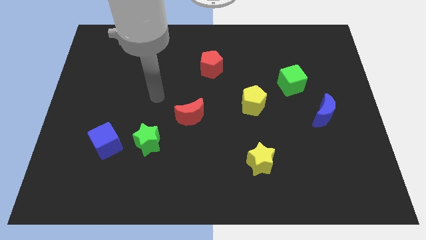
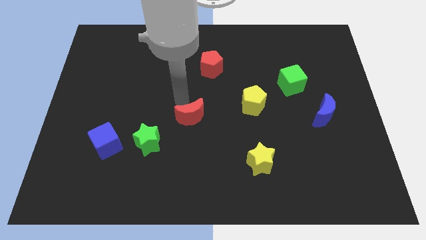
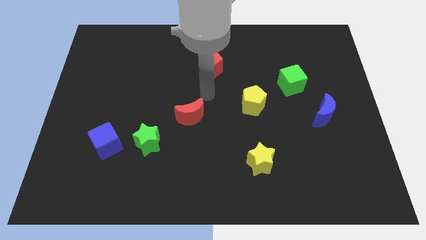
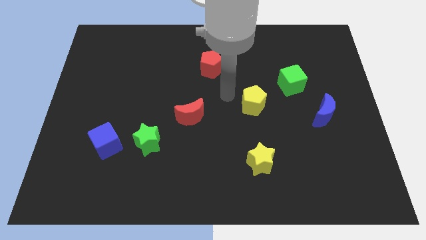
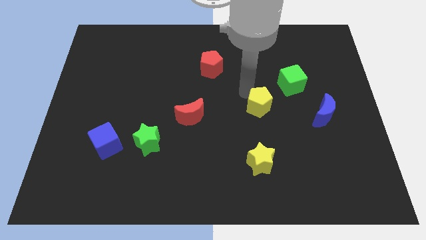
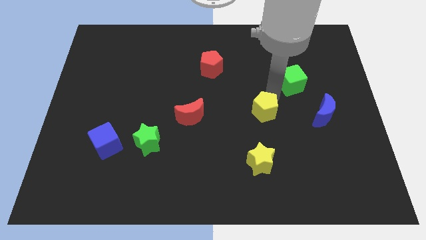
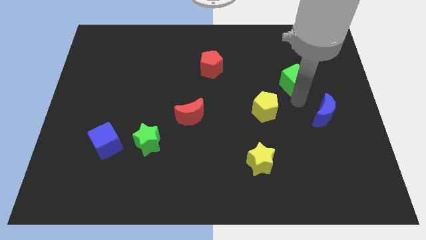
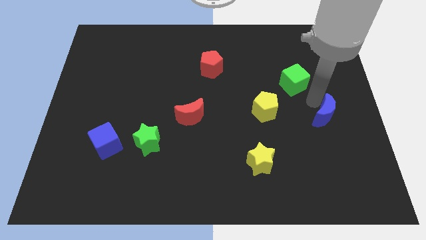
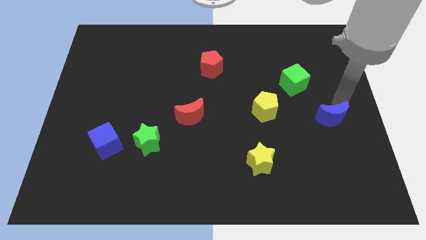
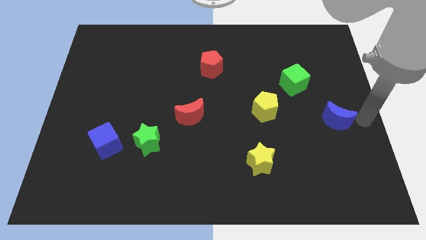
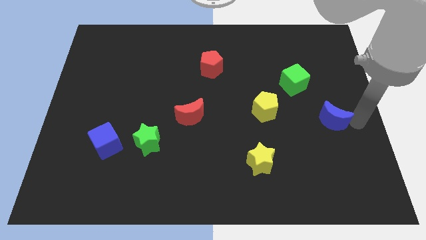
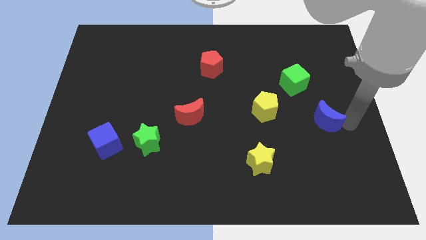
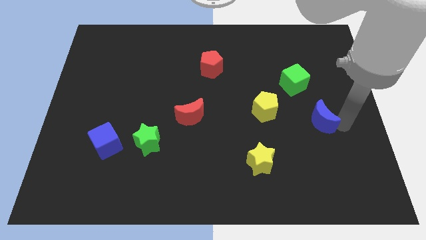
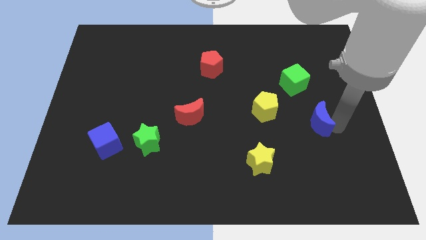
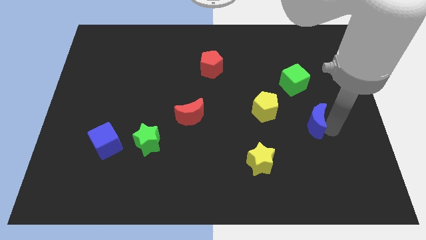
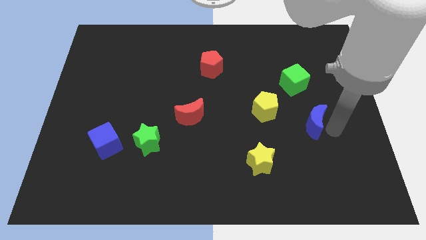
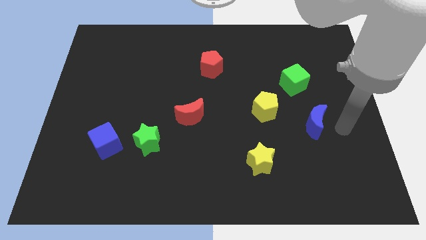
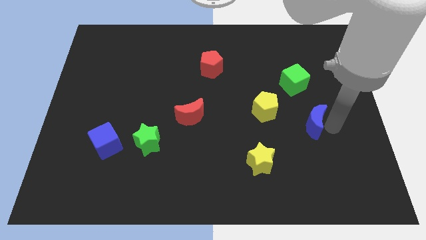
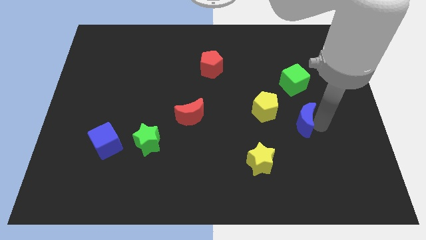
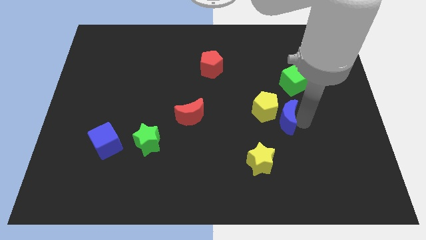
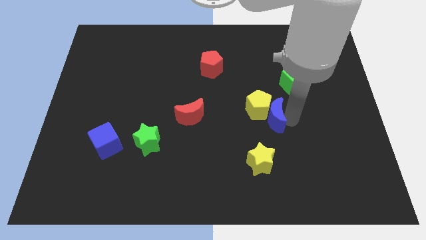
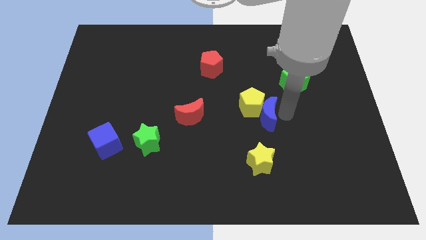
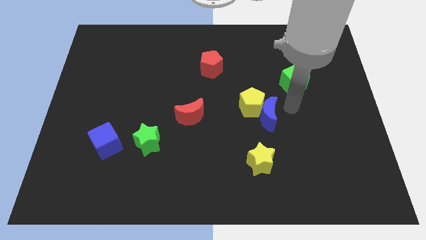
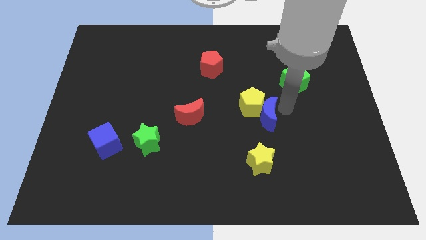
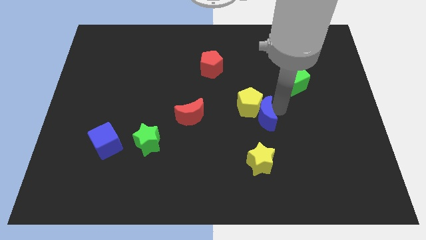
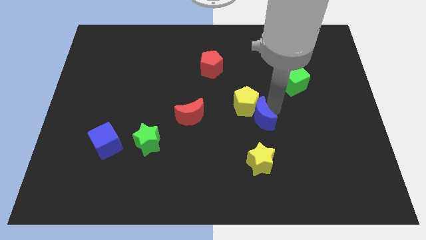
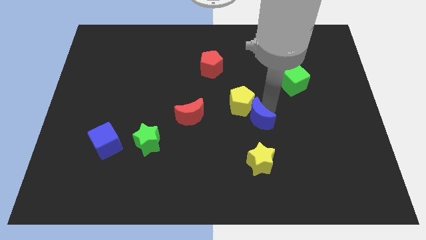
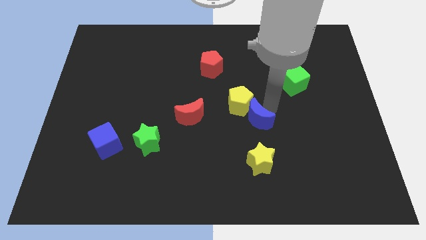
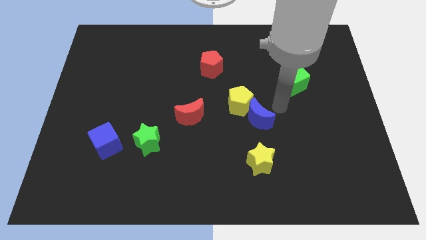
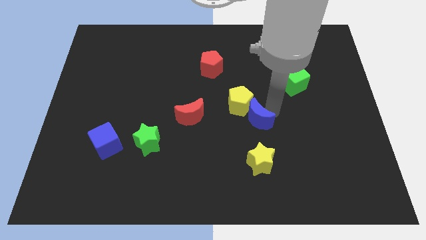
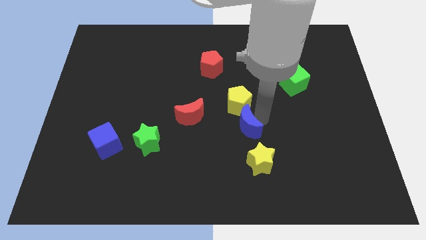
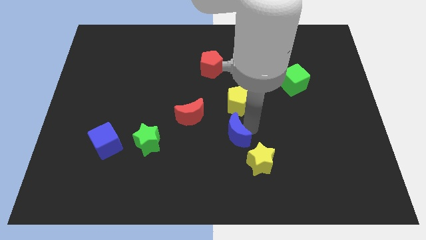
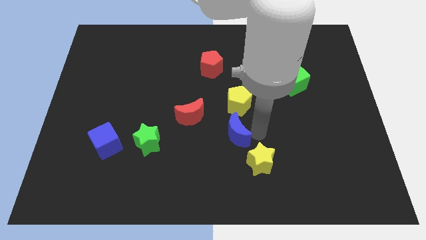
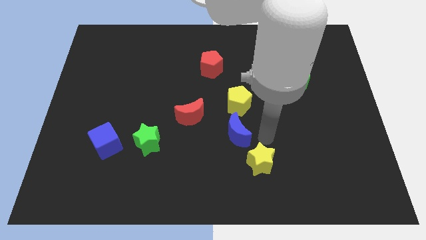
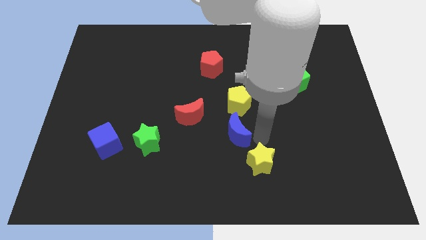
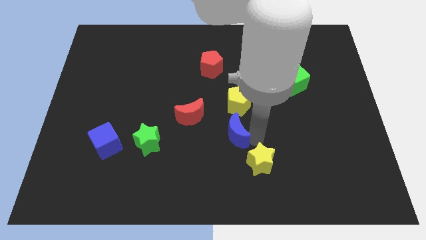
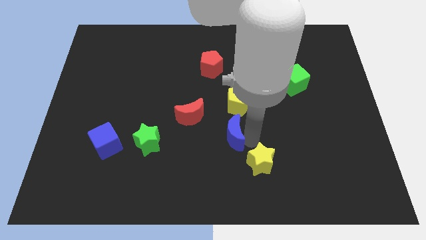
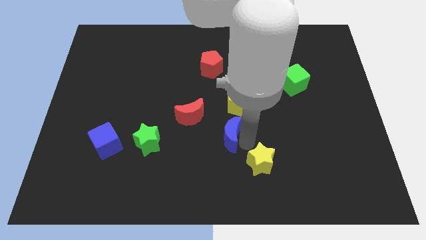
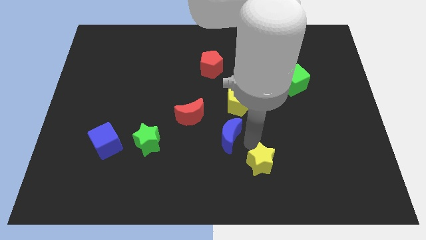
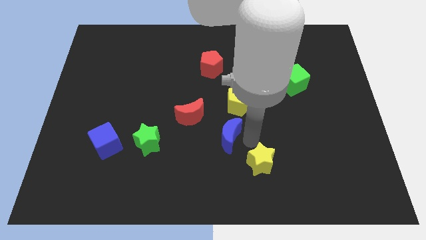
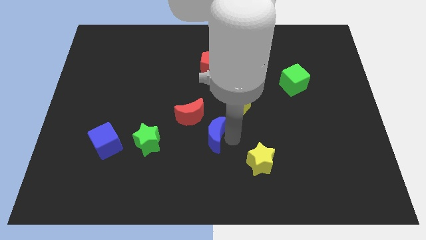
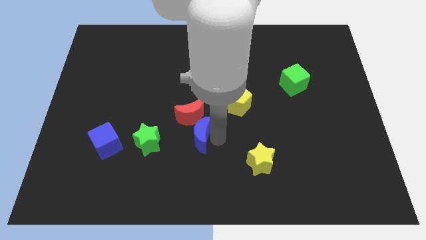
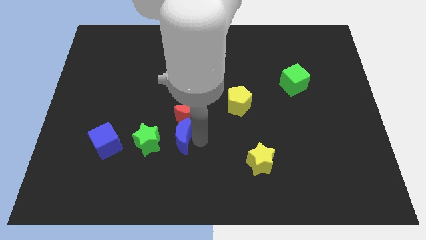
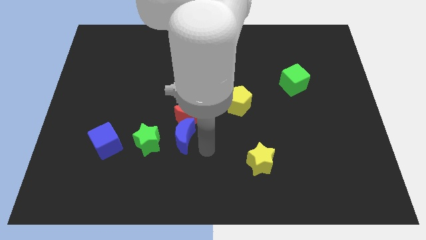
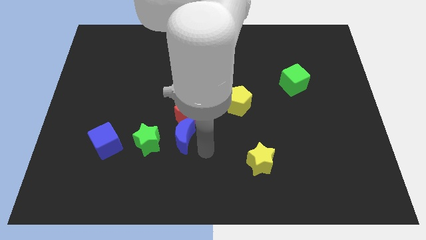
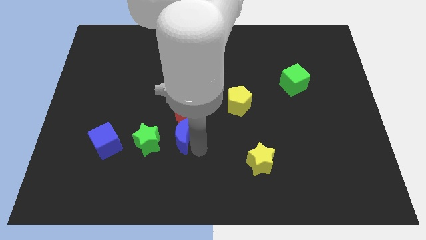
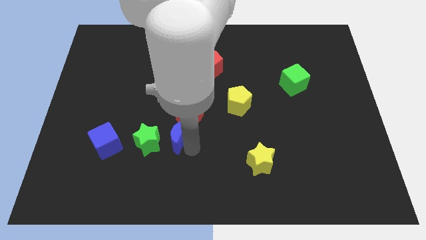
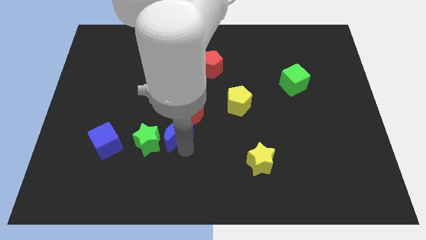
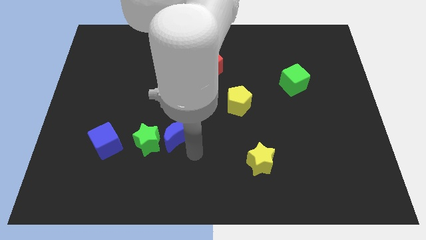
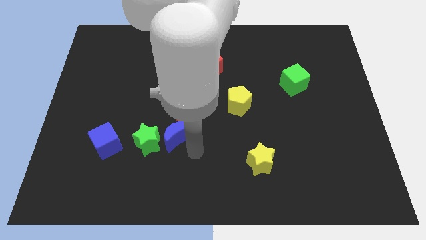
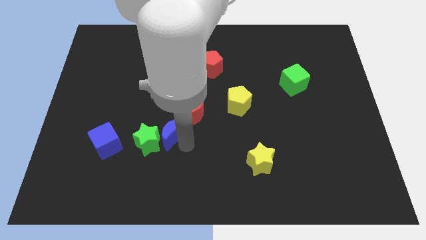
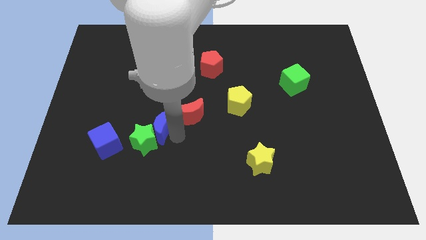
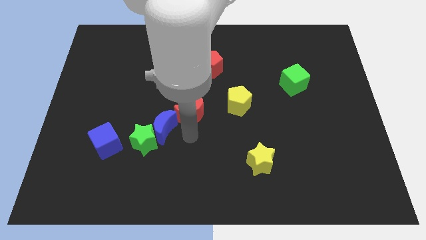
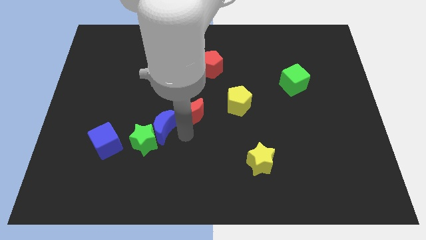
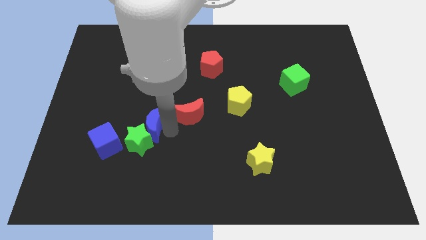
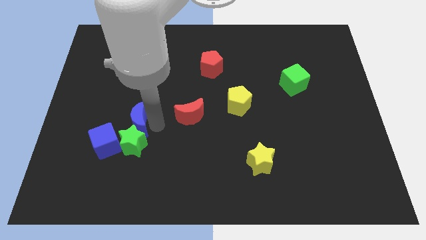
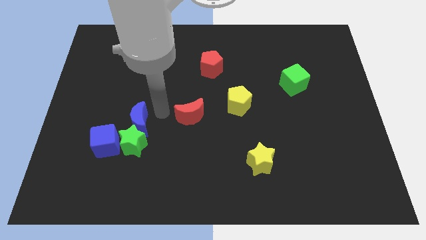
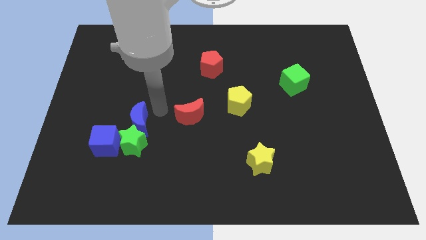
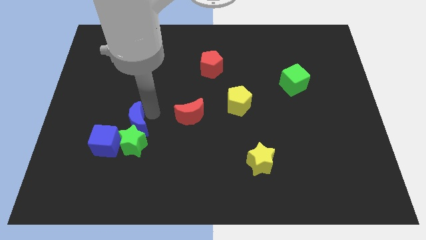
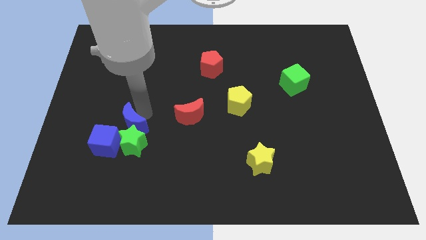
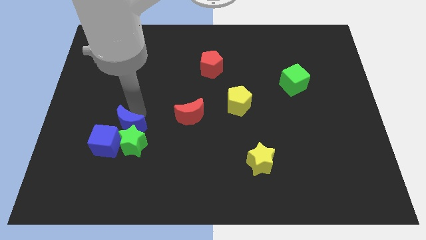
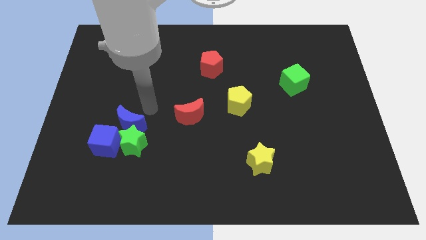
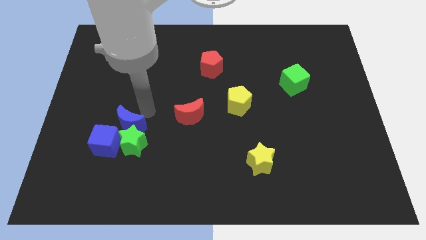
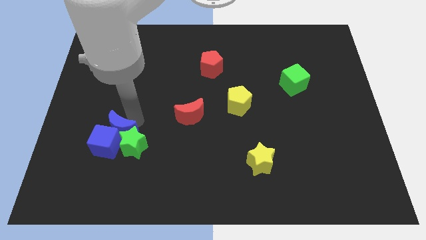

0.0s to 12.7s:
push the blue moon to the blue cube

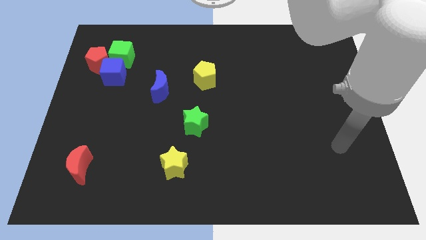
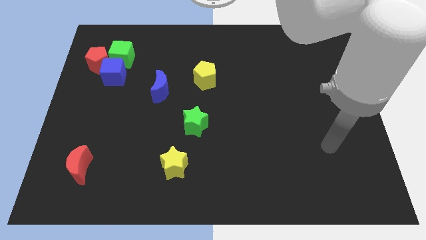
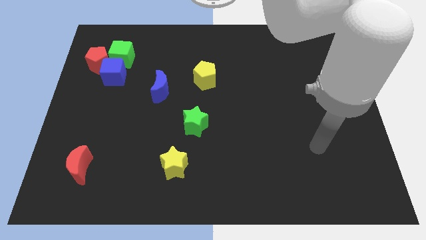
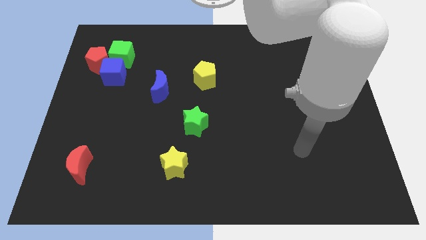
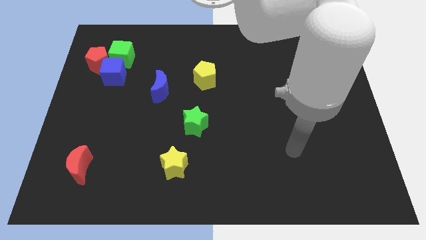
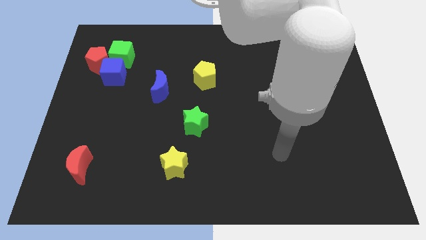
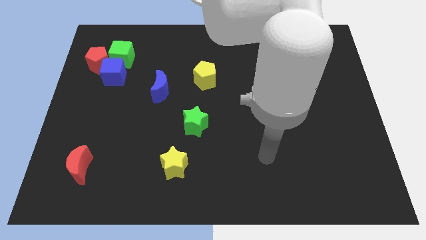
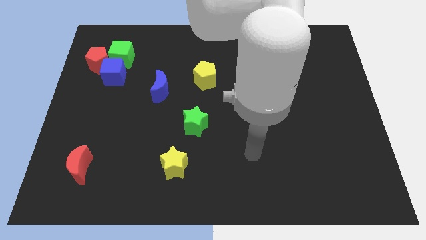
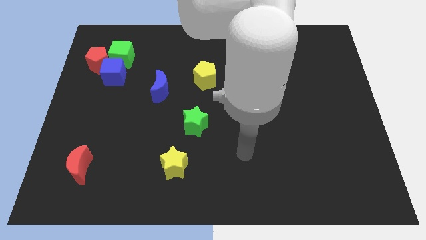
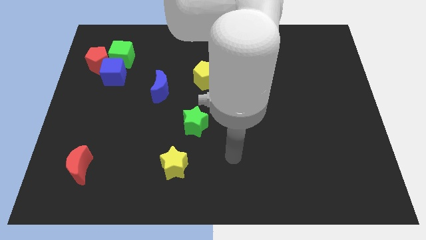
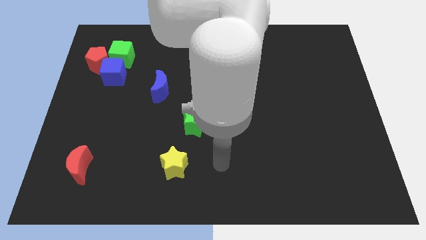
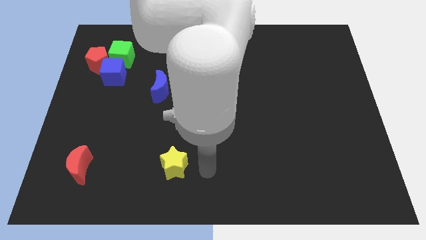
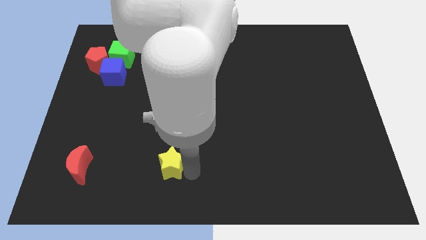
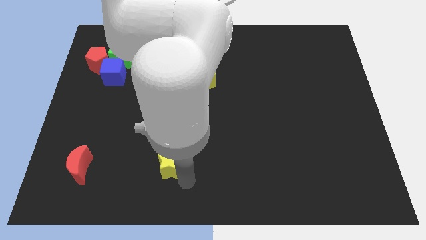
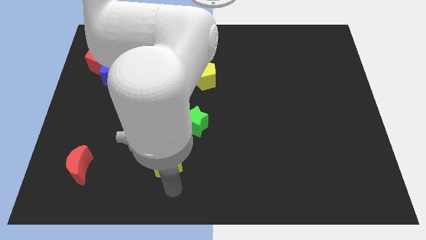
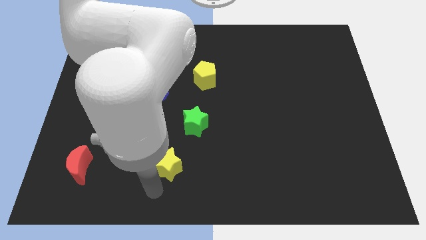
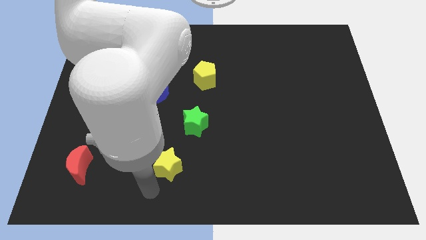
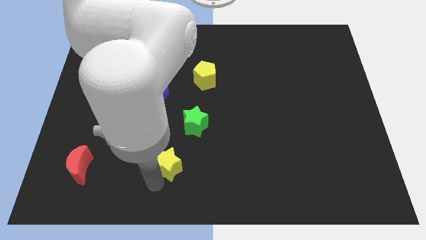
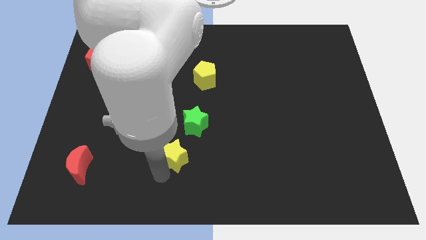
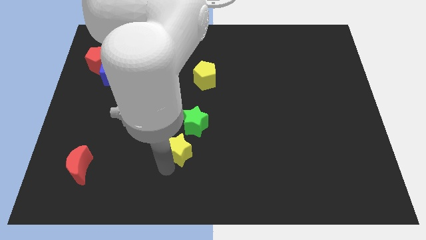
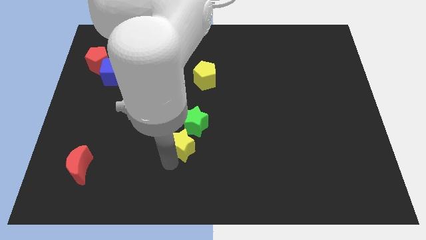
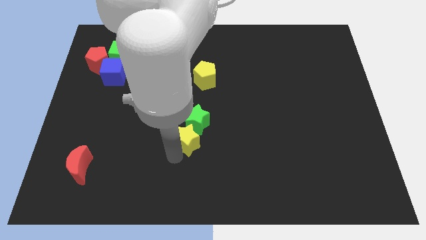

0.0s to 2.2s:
slide the yellow star close to the green star
